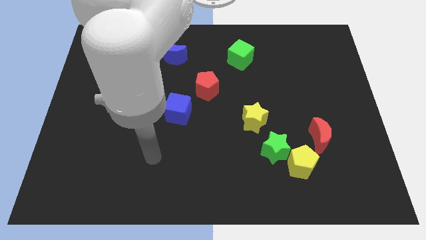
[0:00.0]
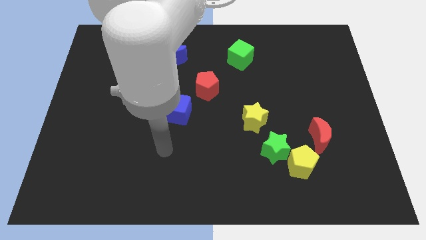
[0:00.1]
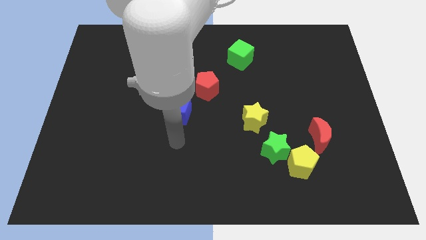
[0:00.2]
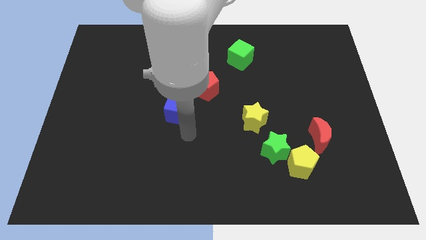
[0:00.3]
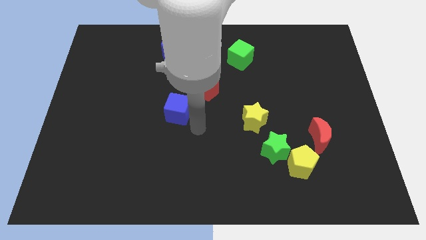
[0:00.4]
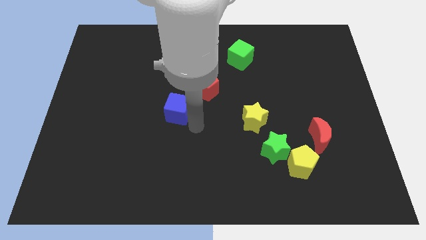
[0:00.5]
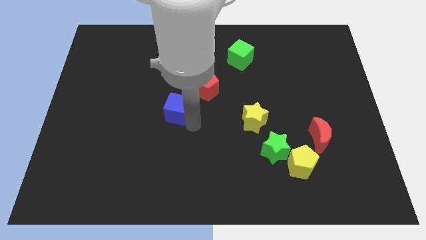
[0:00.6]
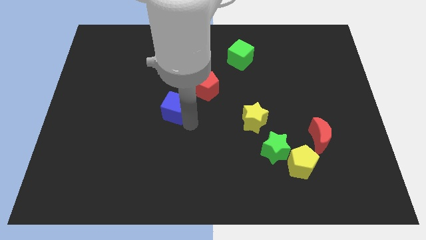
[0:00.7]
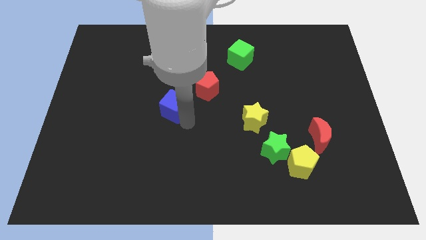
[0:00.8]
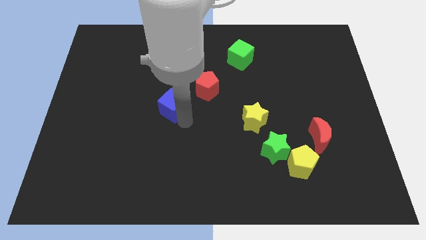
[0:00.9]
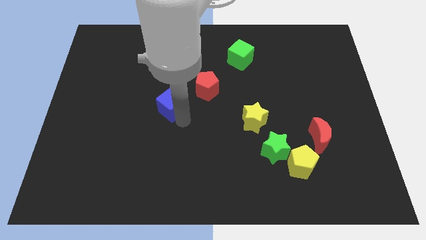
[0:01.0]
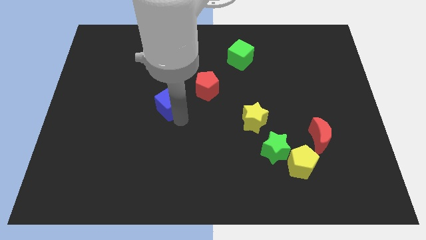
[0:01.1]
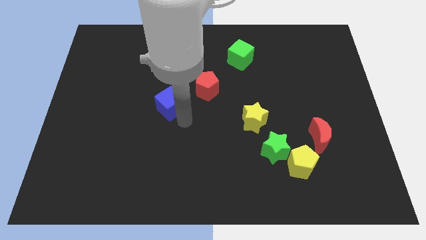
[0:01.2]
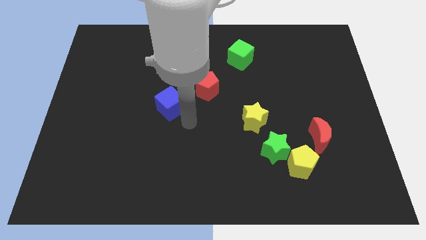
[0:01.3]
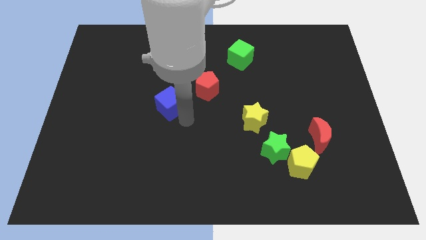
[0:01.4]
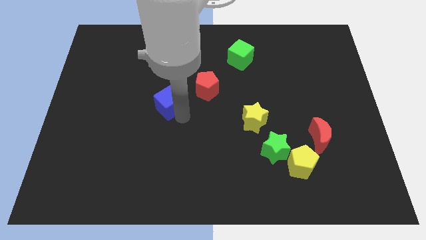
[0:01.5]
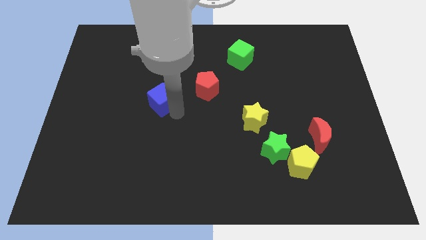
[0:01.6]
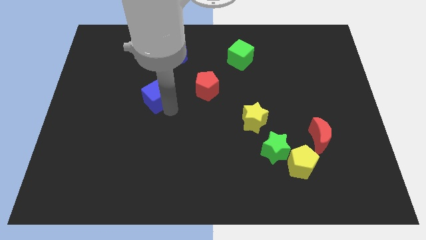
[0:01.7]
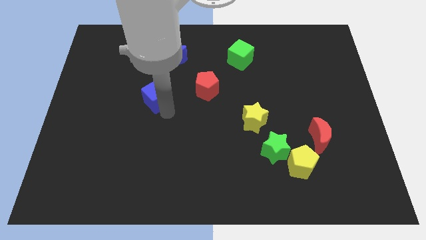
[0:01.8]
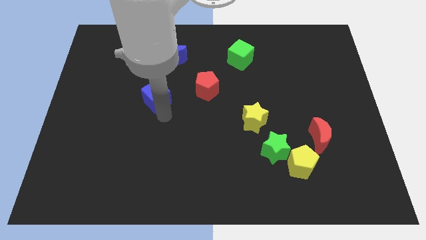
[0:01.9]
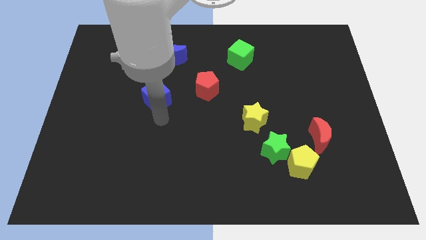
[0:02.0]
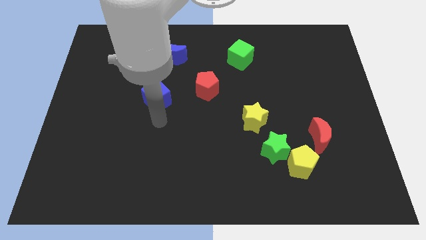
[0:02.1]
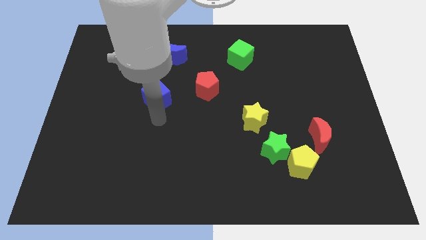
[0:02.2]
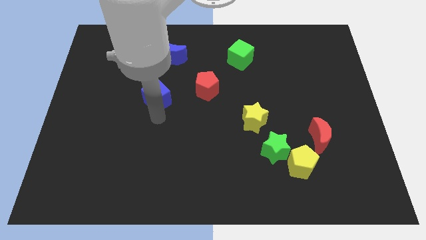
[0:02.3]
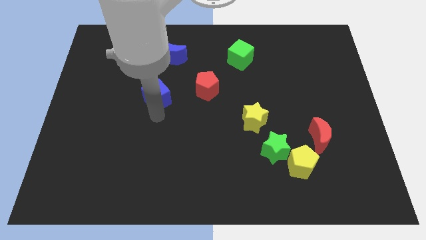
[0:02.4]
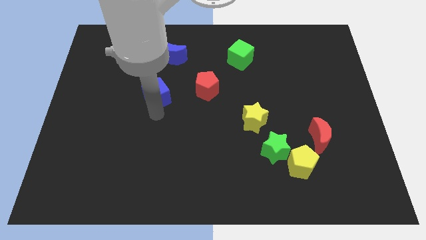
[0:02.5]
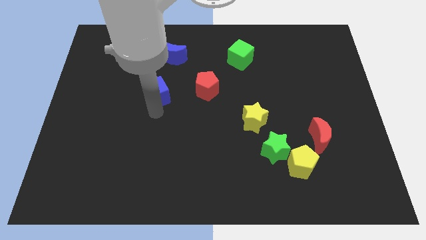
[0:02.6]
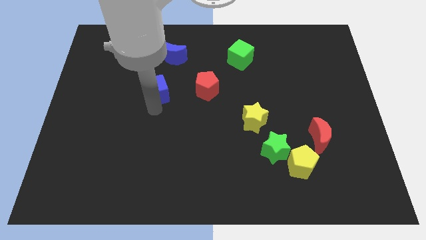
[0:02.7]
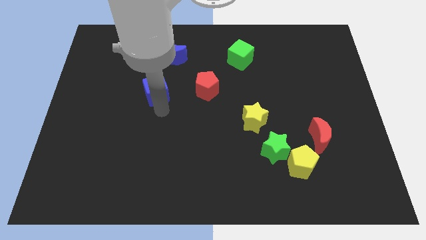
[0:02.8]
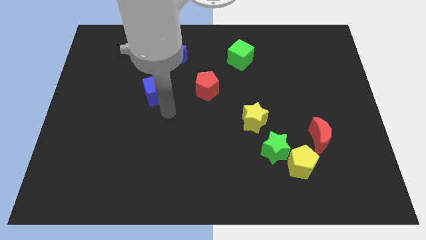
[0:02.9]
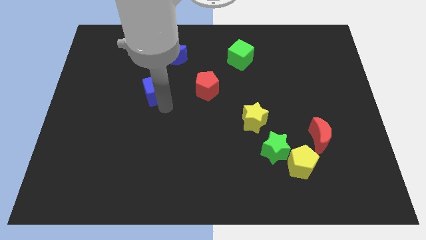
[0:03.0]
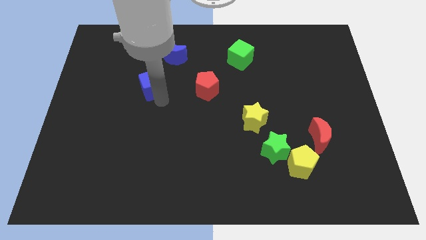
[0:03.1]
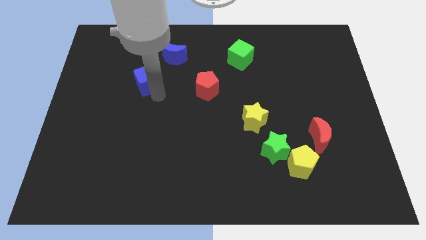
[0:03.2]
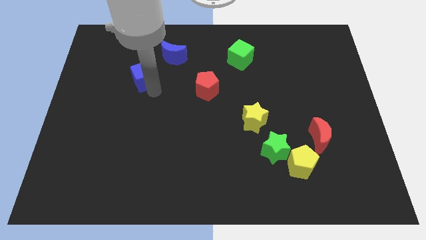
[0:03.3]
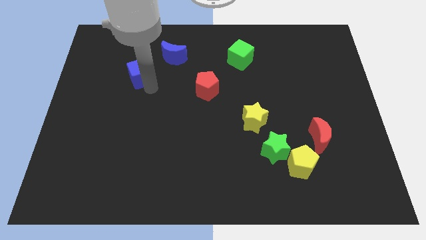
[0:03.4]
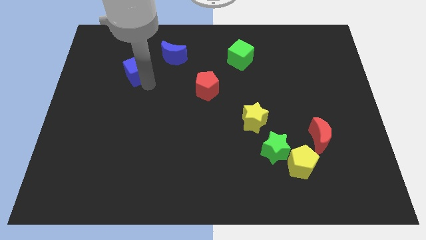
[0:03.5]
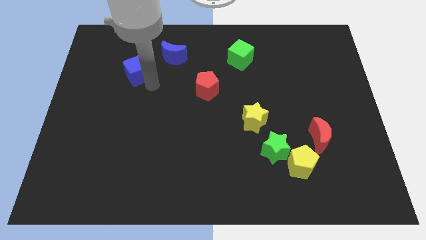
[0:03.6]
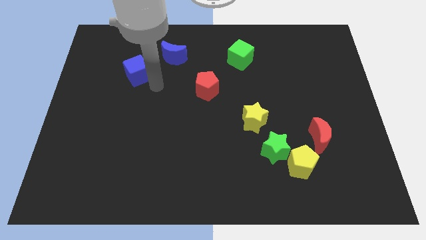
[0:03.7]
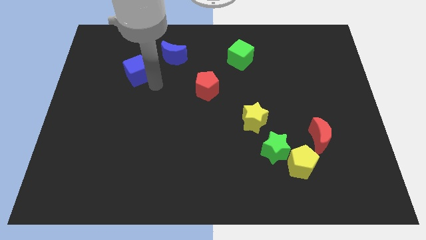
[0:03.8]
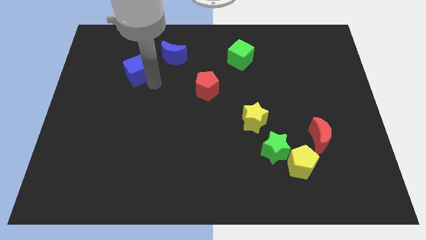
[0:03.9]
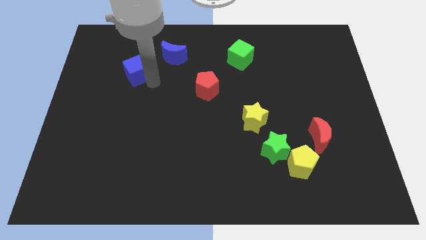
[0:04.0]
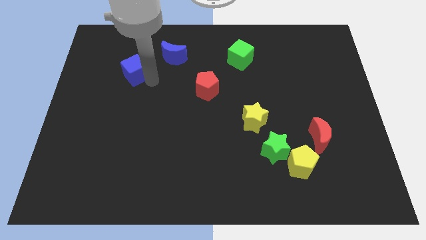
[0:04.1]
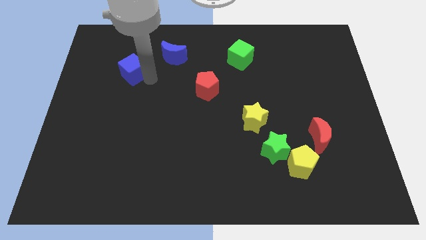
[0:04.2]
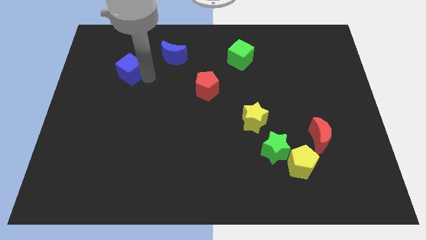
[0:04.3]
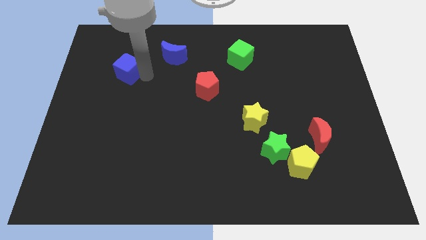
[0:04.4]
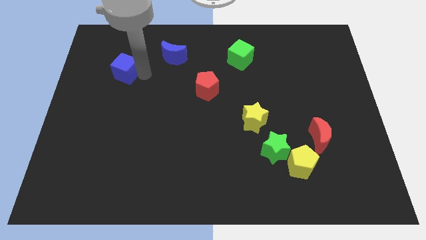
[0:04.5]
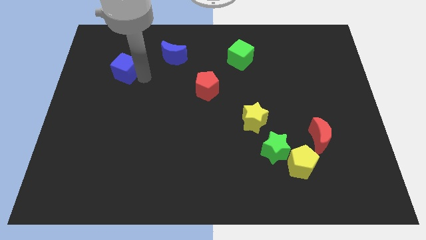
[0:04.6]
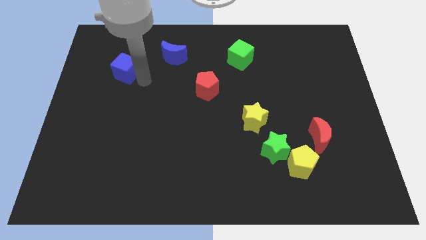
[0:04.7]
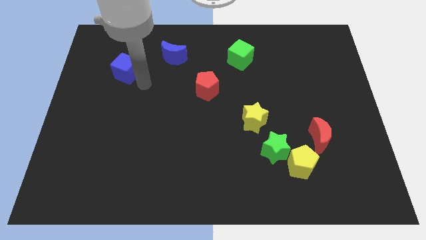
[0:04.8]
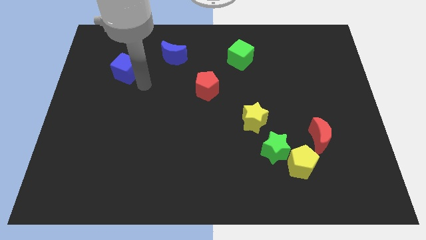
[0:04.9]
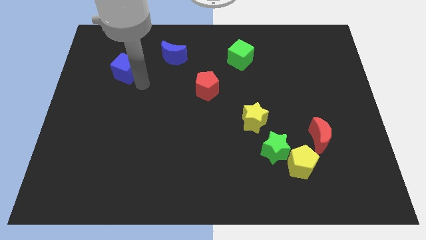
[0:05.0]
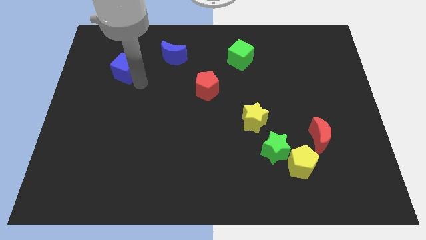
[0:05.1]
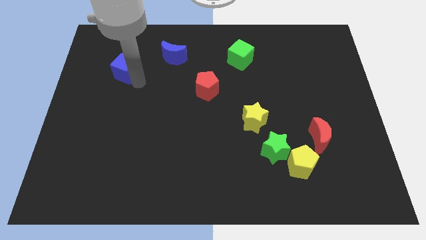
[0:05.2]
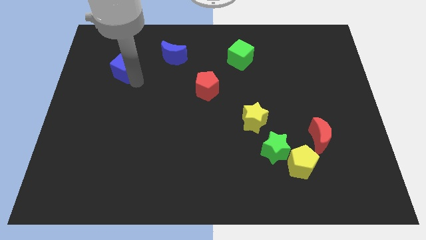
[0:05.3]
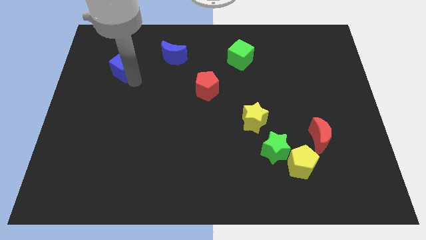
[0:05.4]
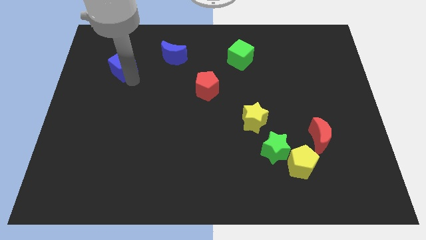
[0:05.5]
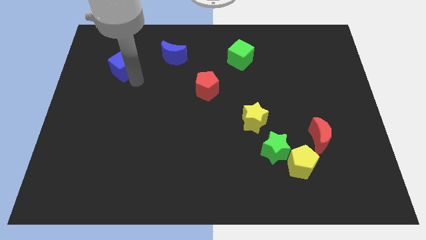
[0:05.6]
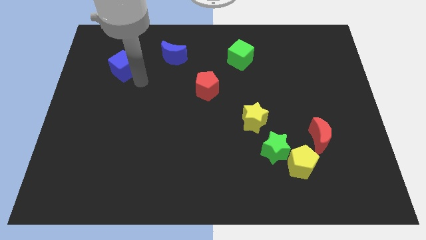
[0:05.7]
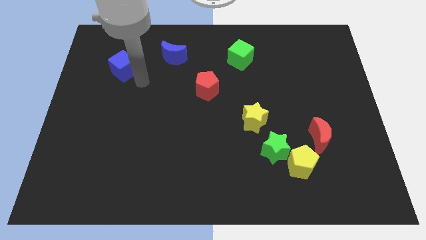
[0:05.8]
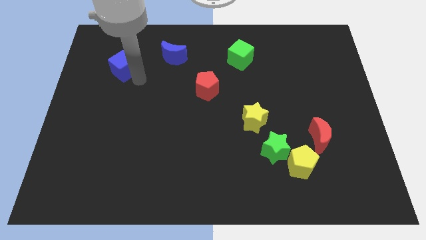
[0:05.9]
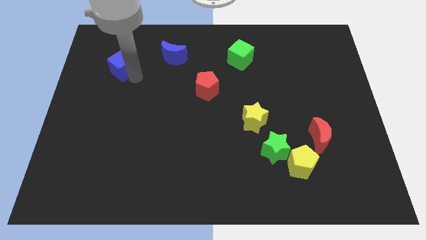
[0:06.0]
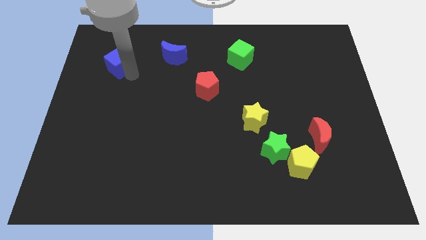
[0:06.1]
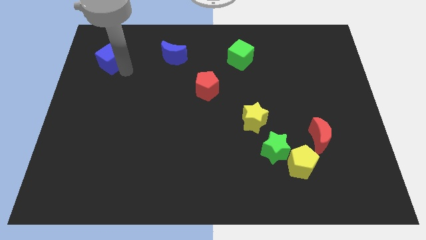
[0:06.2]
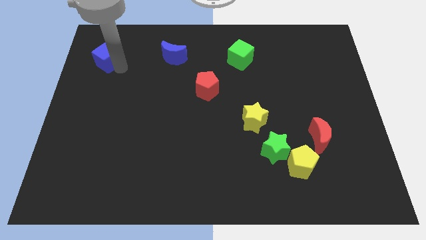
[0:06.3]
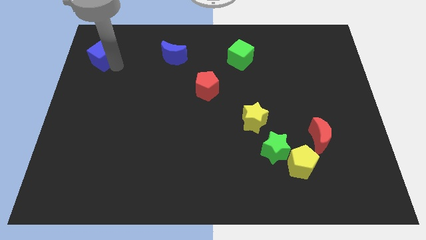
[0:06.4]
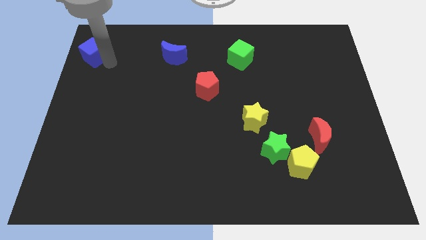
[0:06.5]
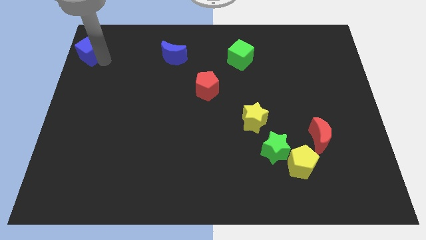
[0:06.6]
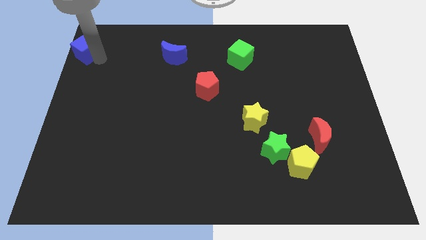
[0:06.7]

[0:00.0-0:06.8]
push the blue cube to the top left
